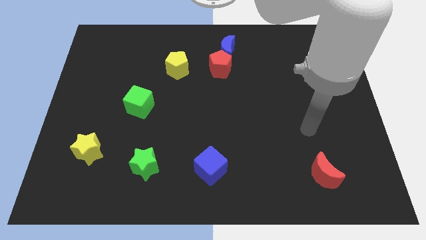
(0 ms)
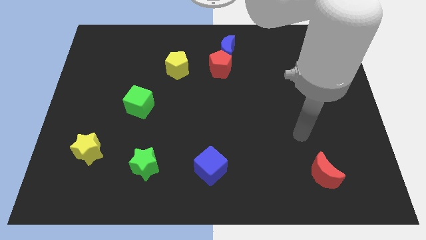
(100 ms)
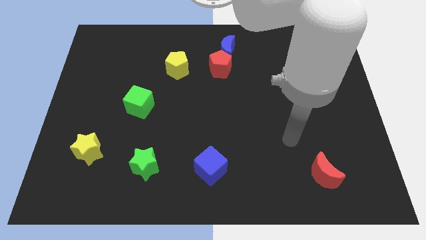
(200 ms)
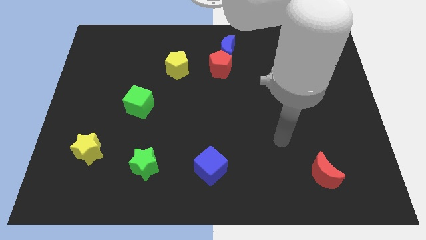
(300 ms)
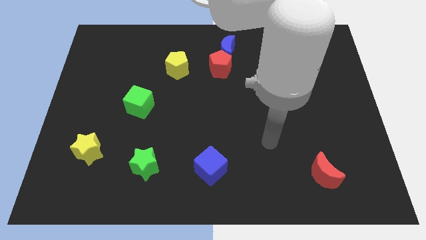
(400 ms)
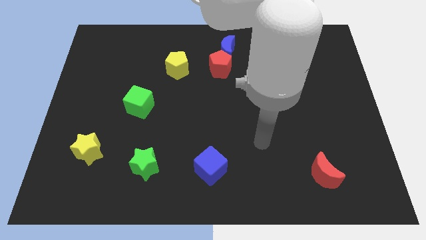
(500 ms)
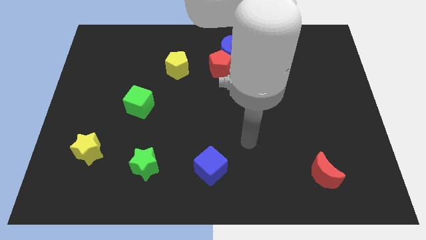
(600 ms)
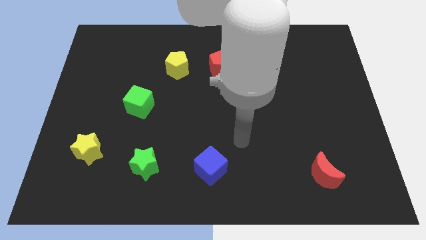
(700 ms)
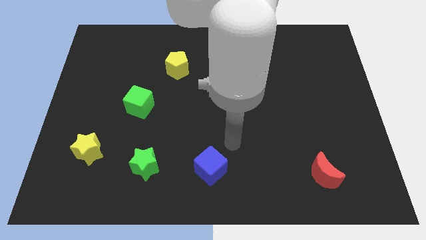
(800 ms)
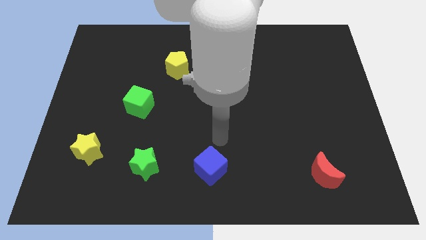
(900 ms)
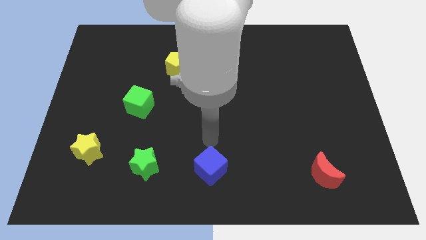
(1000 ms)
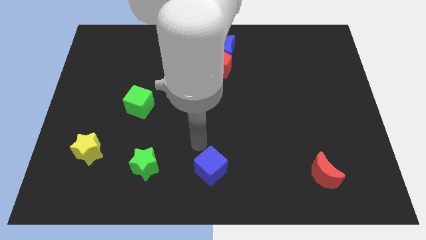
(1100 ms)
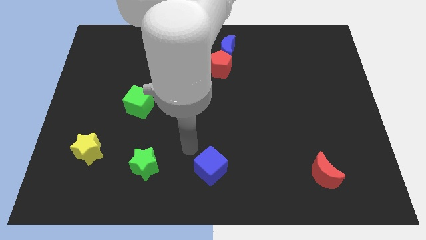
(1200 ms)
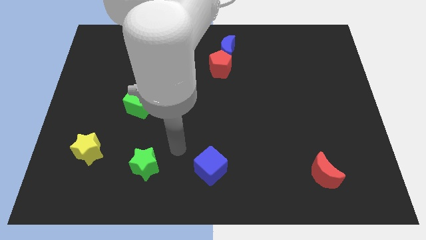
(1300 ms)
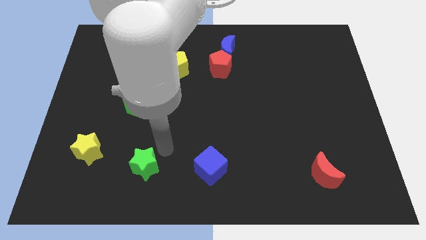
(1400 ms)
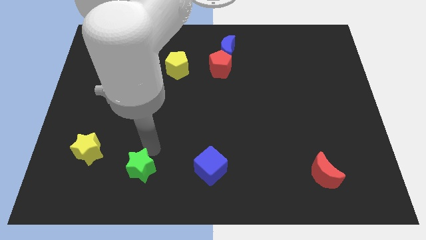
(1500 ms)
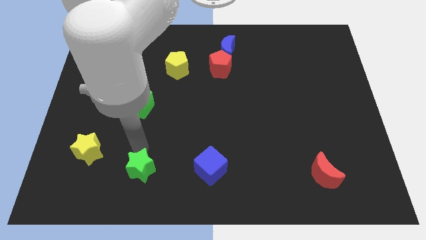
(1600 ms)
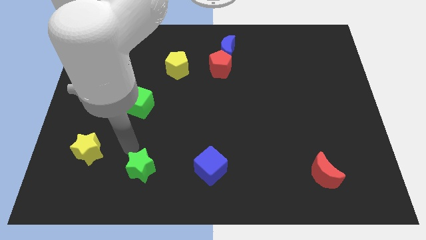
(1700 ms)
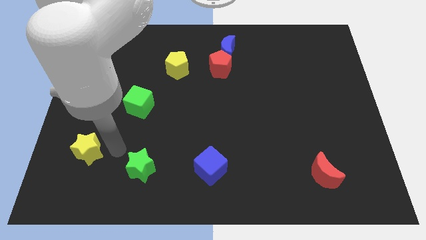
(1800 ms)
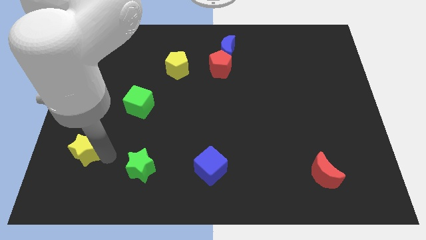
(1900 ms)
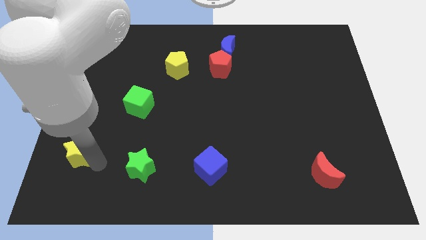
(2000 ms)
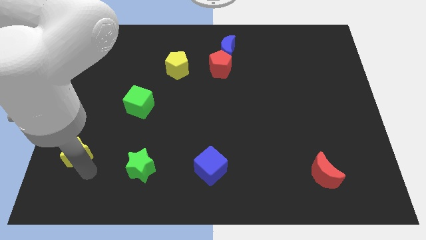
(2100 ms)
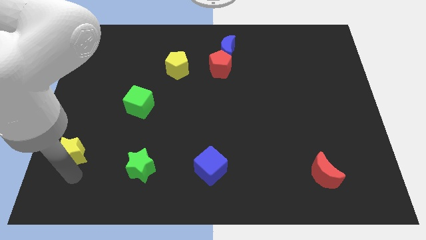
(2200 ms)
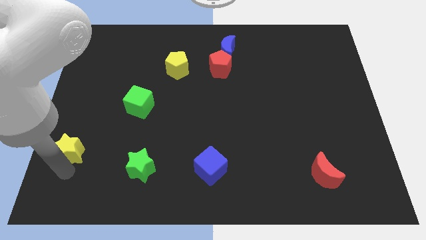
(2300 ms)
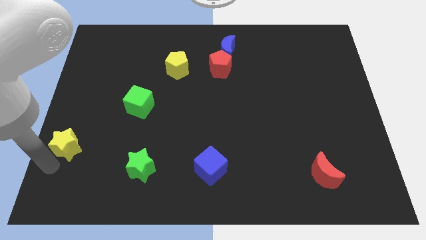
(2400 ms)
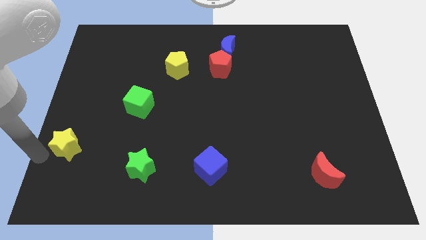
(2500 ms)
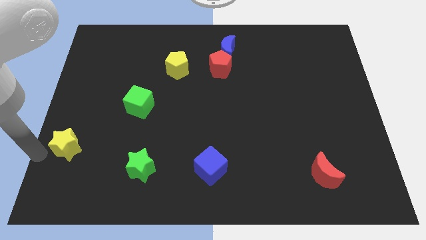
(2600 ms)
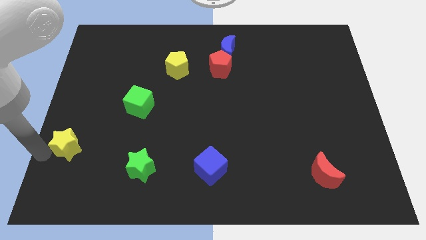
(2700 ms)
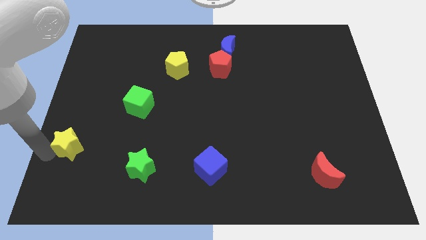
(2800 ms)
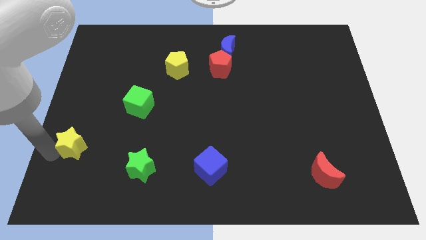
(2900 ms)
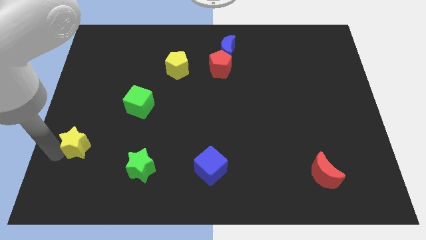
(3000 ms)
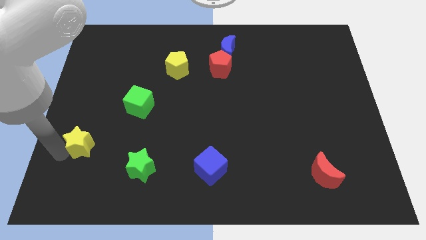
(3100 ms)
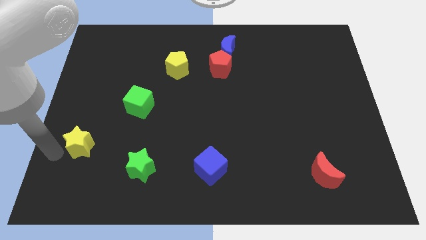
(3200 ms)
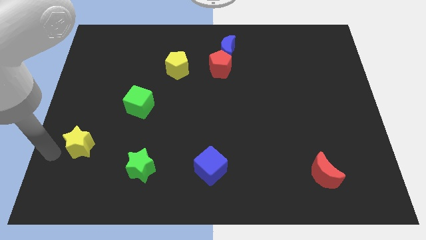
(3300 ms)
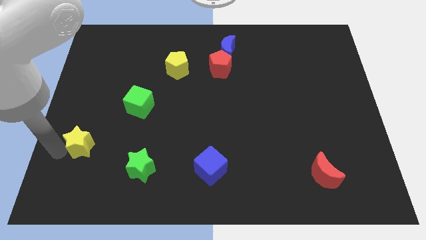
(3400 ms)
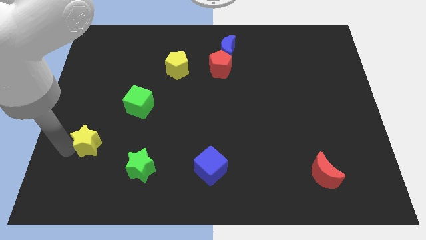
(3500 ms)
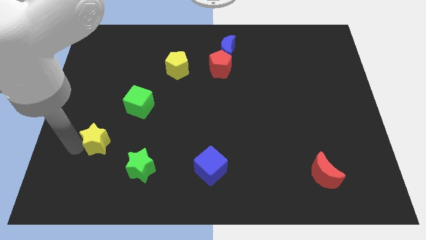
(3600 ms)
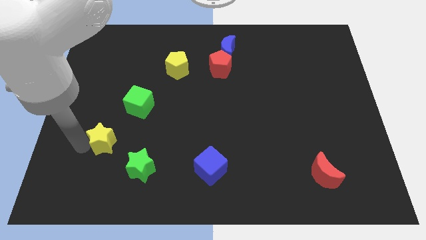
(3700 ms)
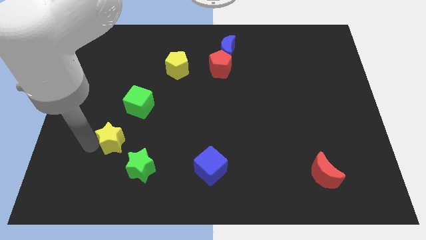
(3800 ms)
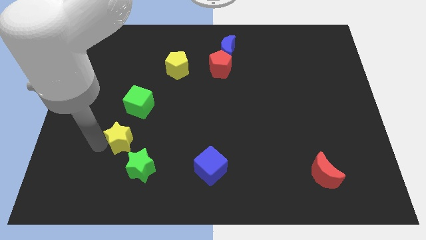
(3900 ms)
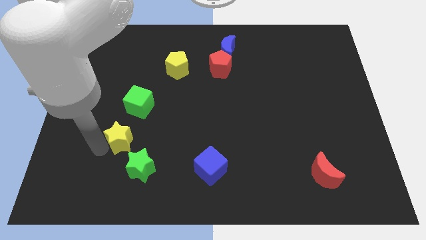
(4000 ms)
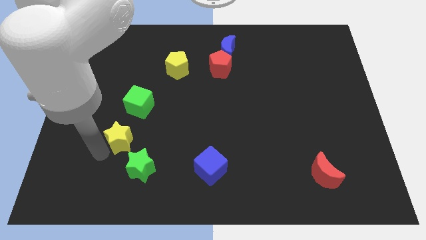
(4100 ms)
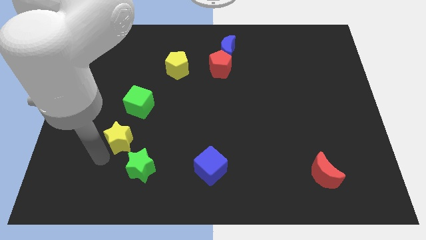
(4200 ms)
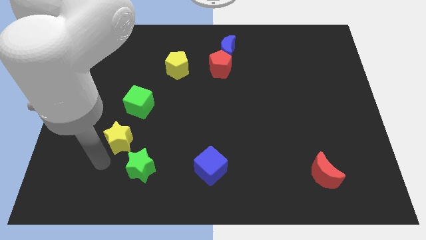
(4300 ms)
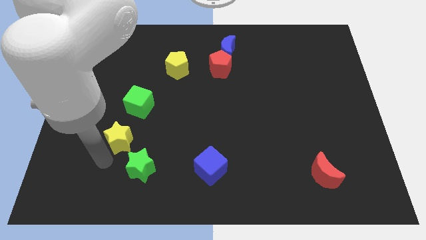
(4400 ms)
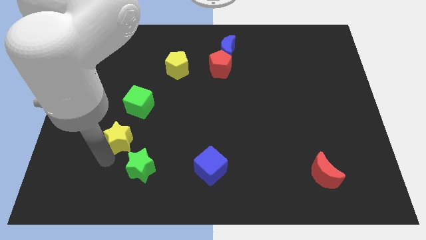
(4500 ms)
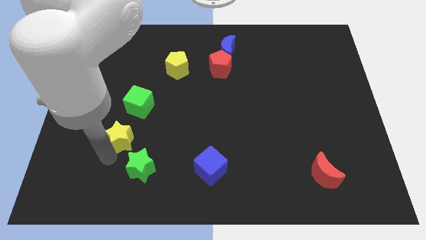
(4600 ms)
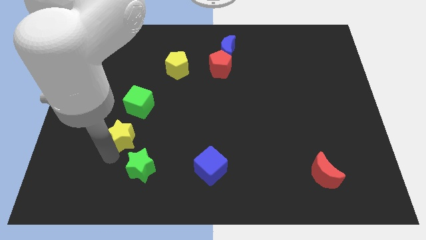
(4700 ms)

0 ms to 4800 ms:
move the yellow star diagonally upwards and to the right a little bit

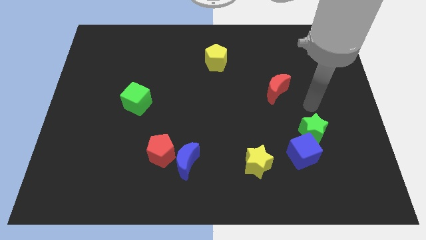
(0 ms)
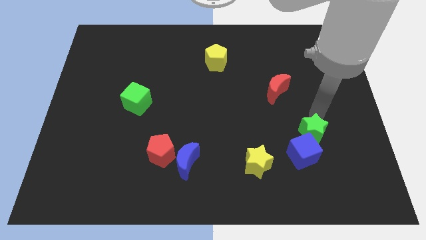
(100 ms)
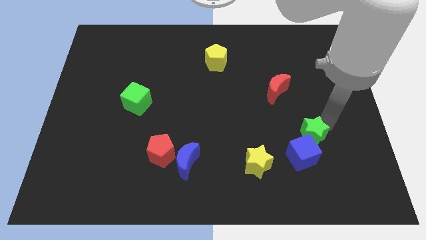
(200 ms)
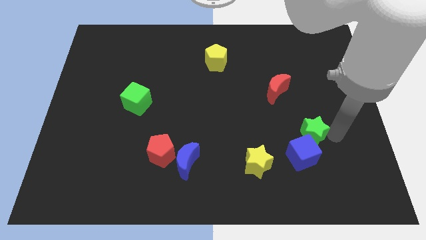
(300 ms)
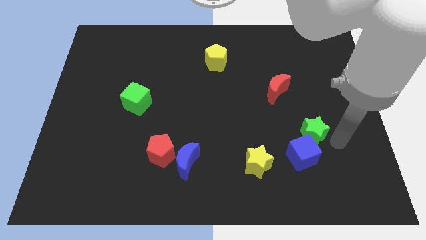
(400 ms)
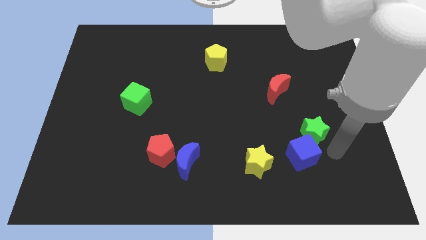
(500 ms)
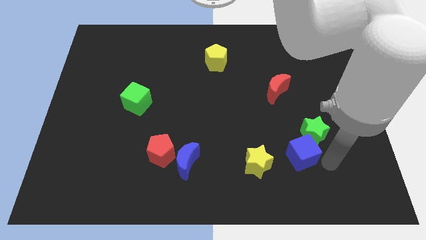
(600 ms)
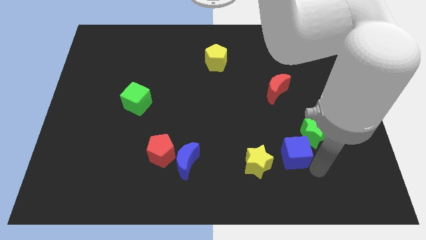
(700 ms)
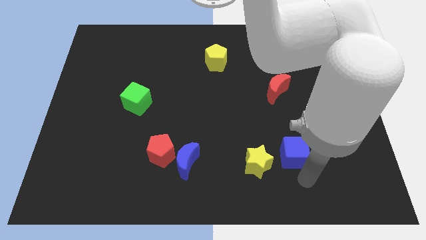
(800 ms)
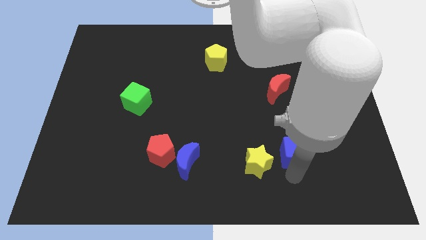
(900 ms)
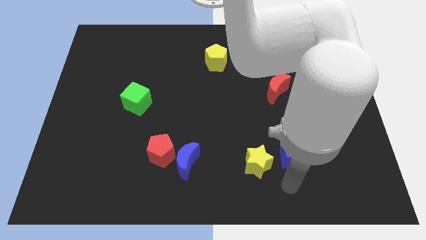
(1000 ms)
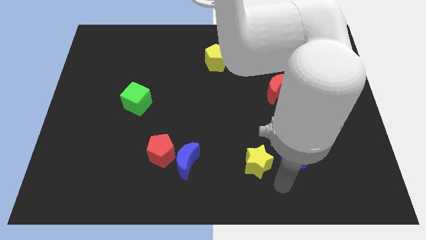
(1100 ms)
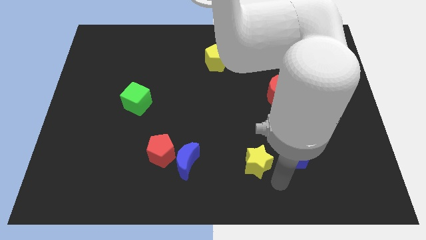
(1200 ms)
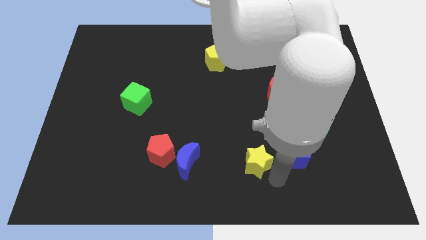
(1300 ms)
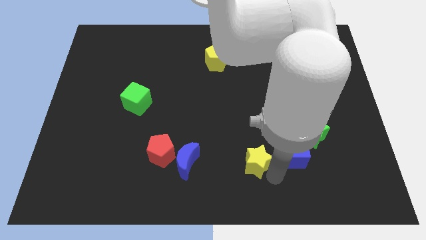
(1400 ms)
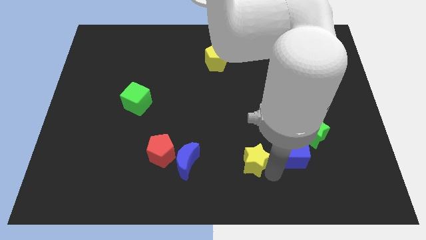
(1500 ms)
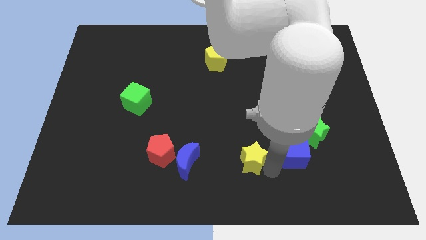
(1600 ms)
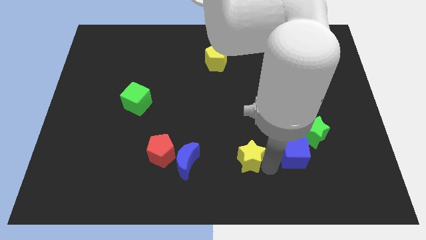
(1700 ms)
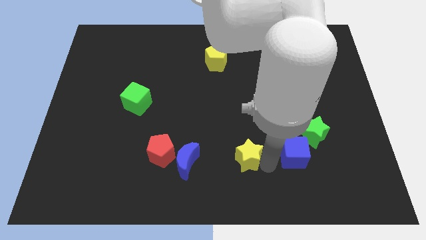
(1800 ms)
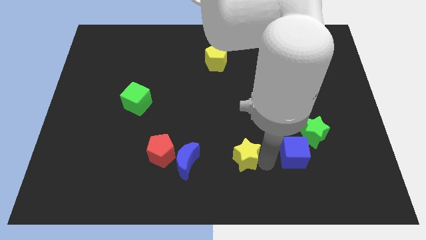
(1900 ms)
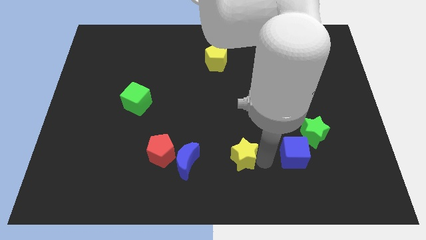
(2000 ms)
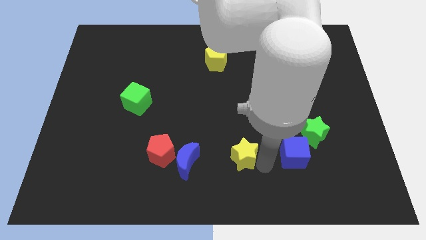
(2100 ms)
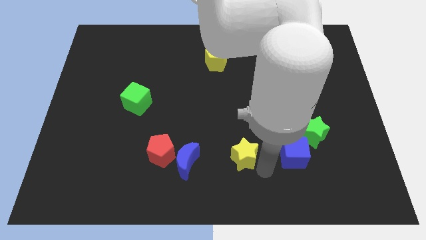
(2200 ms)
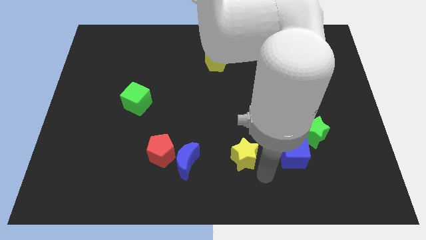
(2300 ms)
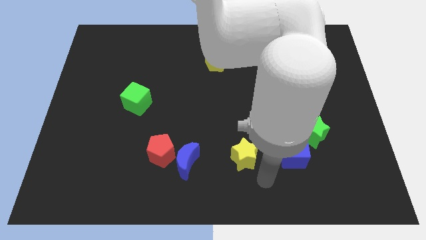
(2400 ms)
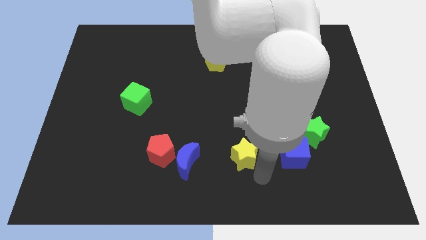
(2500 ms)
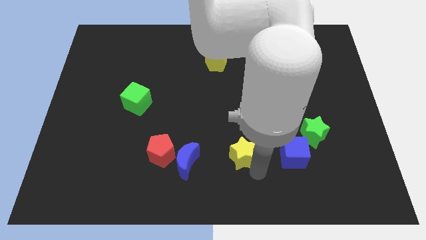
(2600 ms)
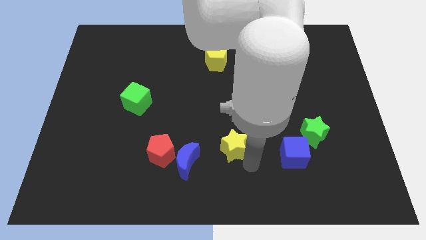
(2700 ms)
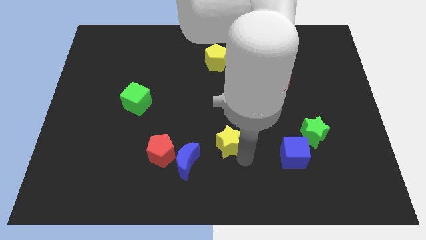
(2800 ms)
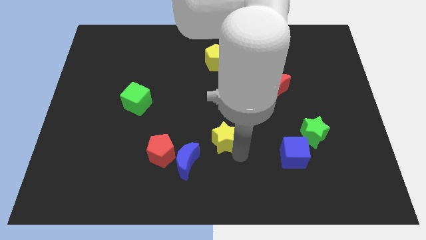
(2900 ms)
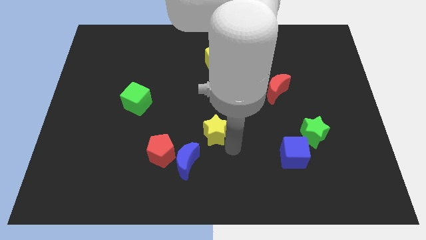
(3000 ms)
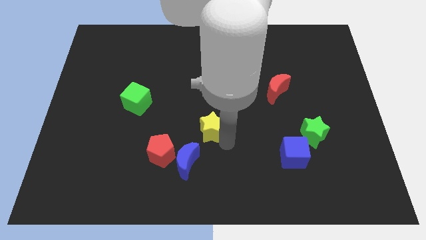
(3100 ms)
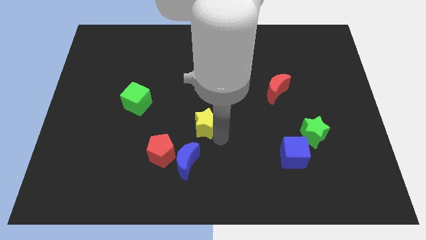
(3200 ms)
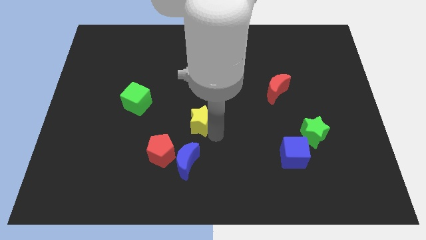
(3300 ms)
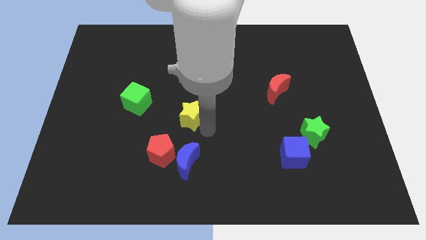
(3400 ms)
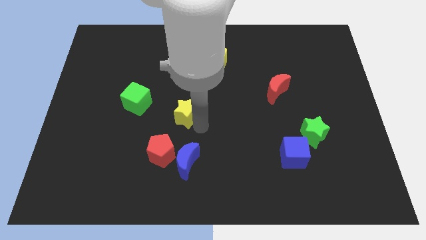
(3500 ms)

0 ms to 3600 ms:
move the yellow star up and then left
